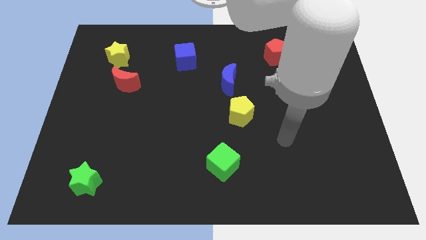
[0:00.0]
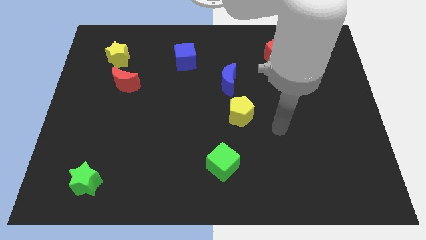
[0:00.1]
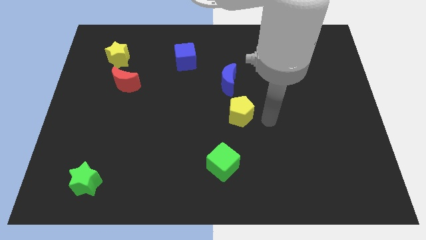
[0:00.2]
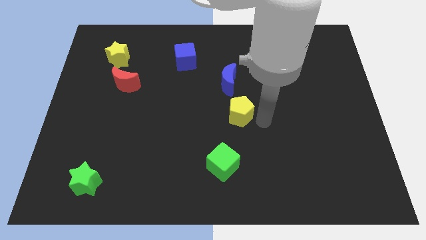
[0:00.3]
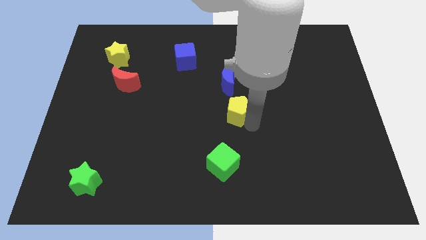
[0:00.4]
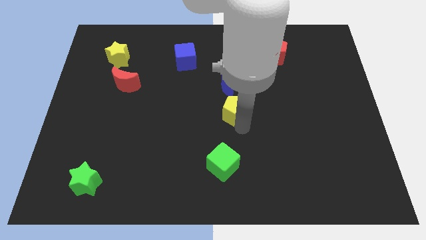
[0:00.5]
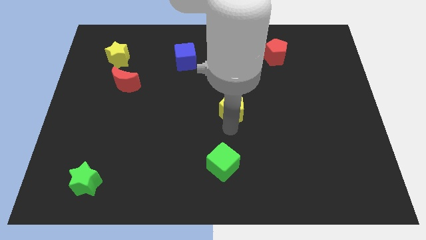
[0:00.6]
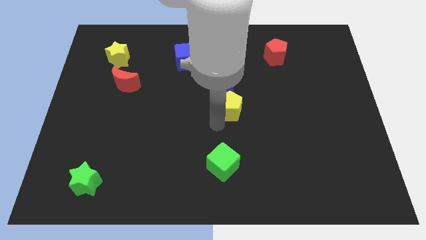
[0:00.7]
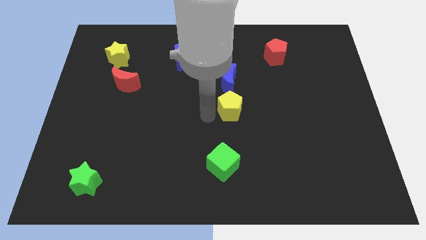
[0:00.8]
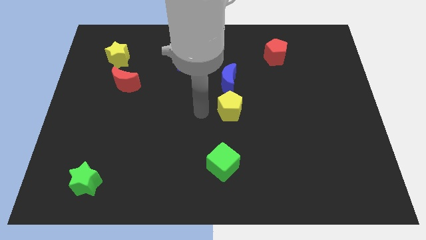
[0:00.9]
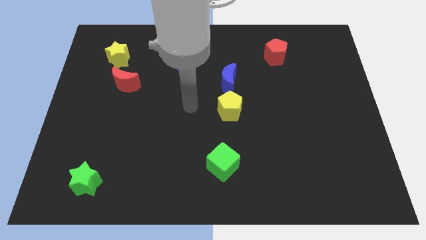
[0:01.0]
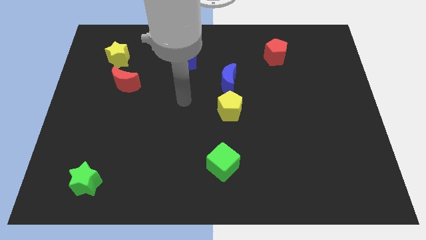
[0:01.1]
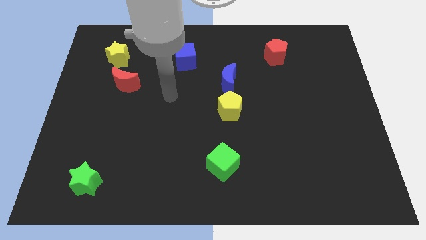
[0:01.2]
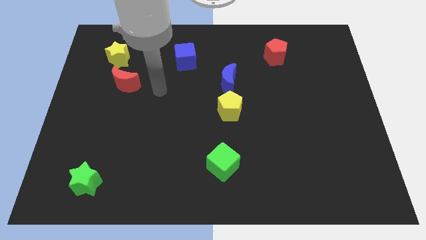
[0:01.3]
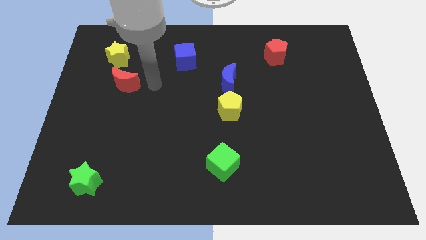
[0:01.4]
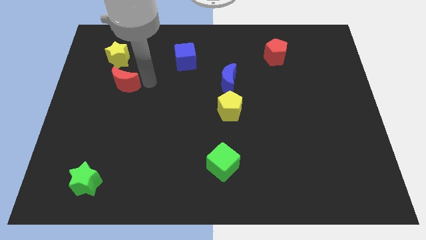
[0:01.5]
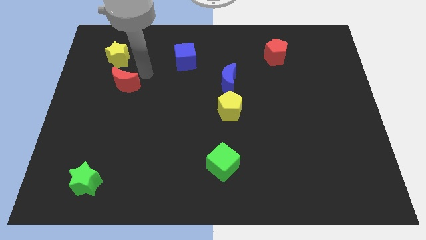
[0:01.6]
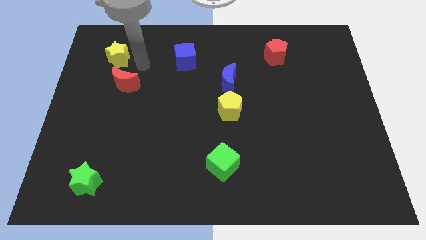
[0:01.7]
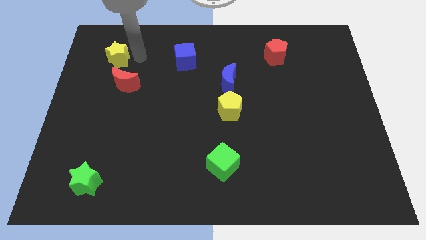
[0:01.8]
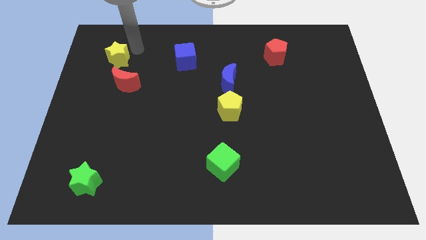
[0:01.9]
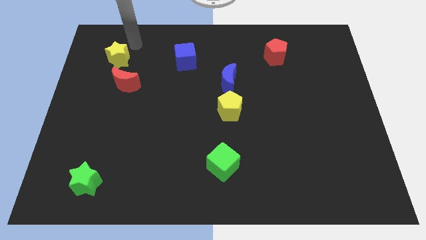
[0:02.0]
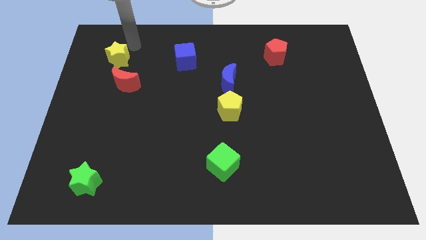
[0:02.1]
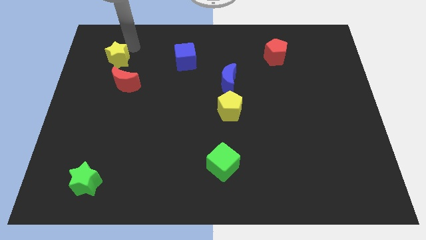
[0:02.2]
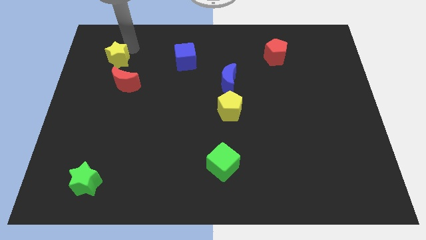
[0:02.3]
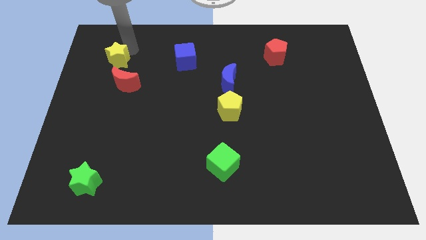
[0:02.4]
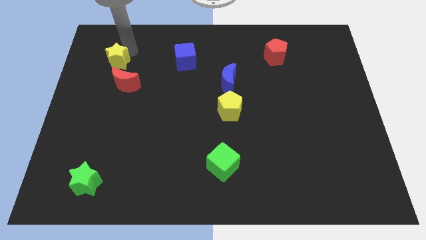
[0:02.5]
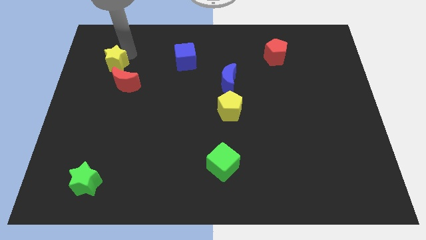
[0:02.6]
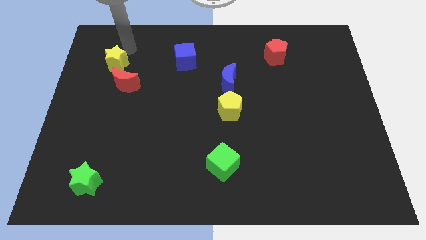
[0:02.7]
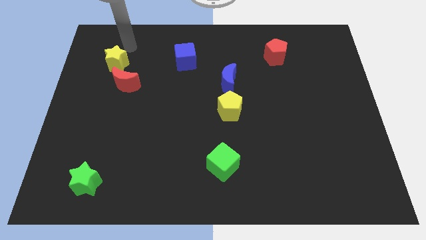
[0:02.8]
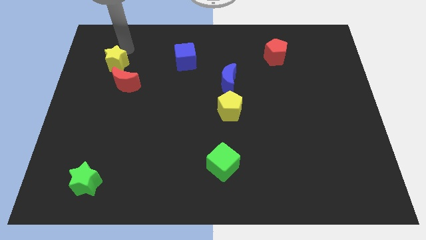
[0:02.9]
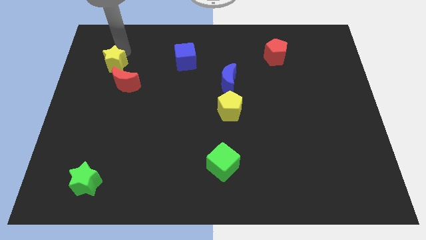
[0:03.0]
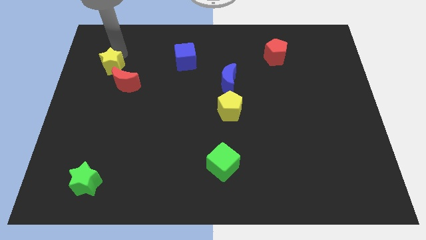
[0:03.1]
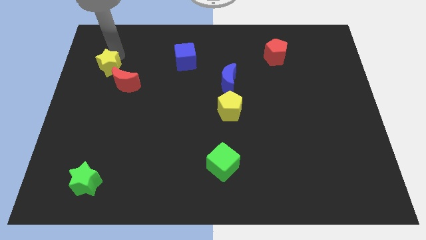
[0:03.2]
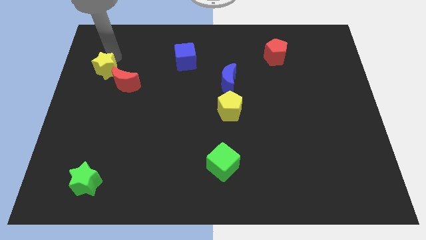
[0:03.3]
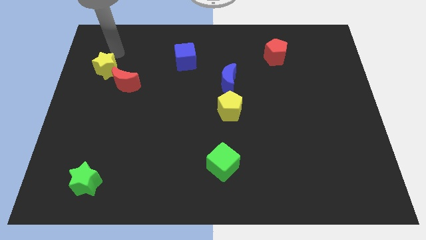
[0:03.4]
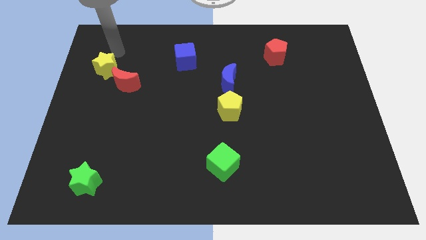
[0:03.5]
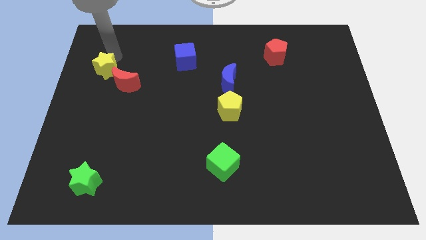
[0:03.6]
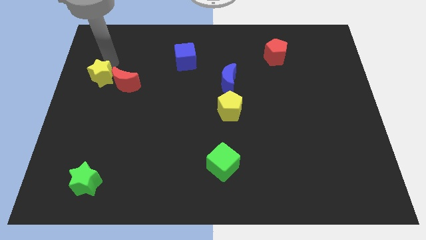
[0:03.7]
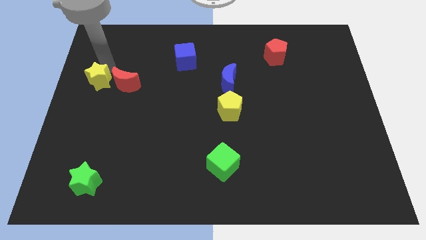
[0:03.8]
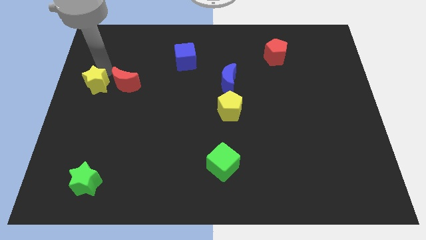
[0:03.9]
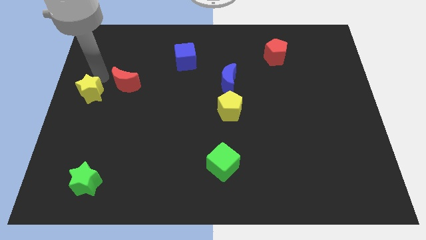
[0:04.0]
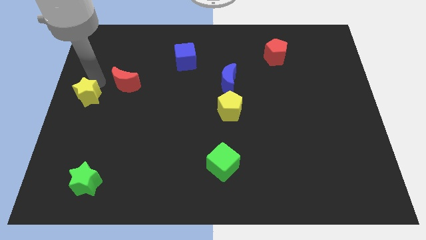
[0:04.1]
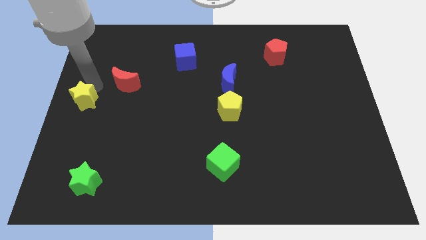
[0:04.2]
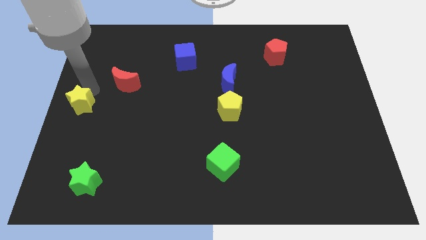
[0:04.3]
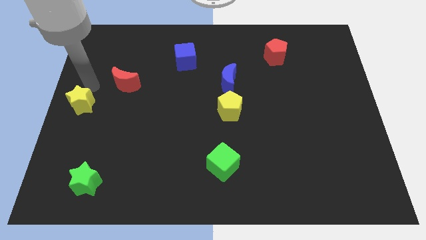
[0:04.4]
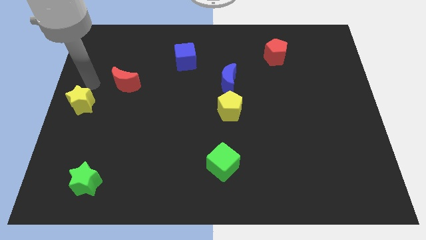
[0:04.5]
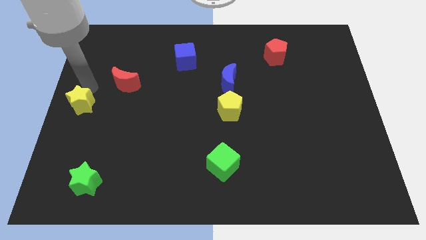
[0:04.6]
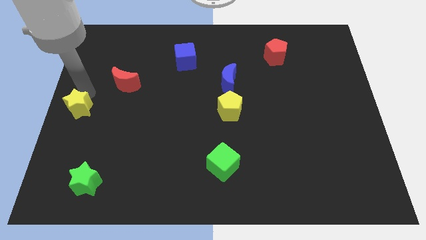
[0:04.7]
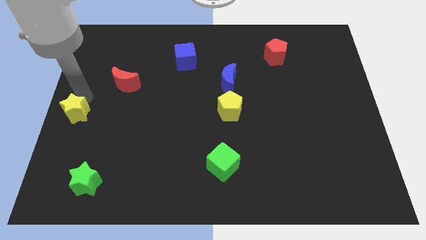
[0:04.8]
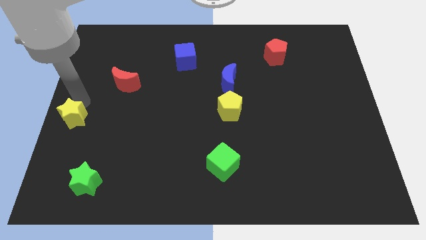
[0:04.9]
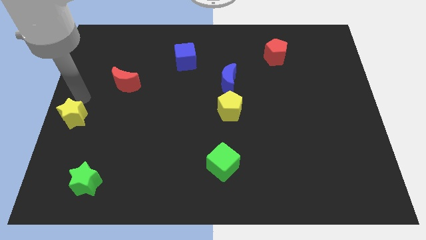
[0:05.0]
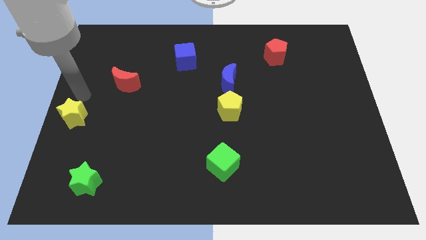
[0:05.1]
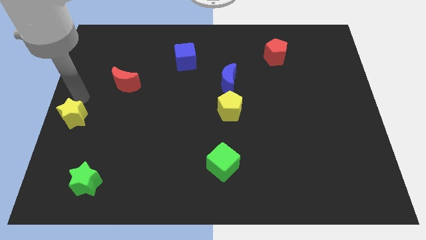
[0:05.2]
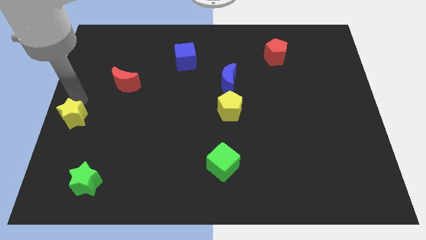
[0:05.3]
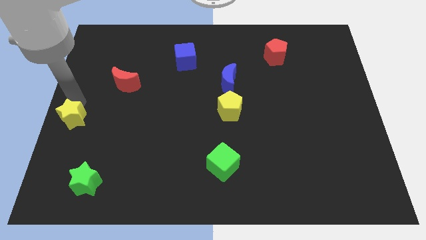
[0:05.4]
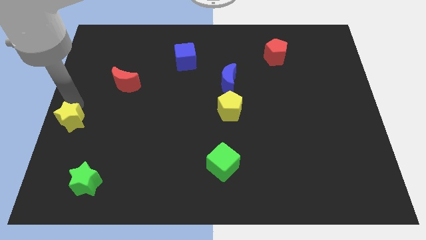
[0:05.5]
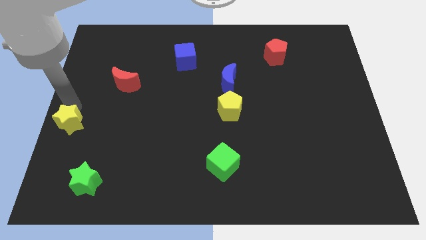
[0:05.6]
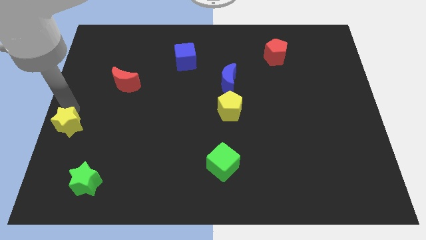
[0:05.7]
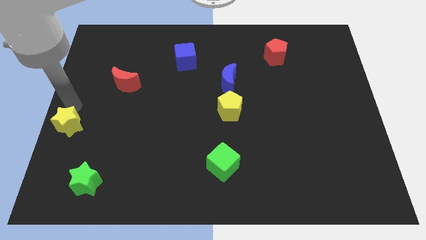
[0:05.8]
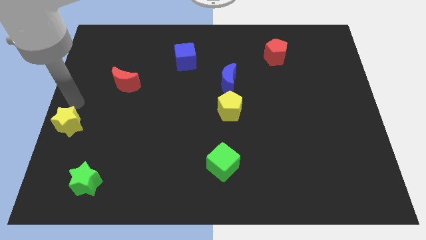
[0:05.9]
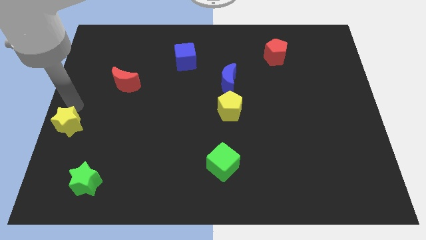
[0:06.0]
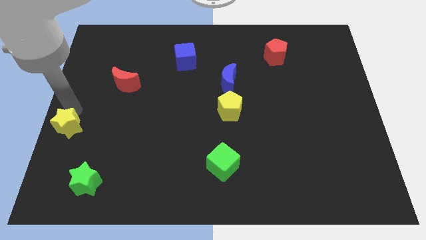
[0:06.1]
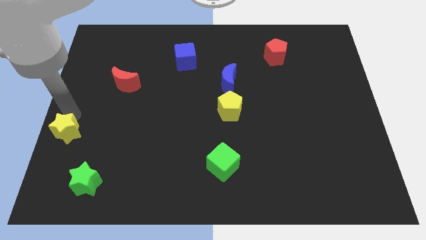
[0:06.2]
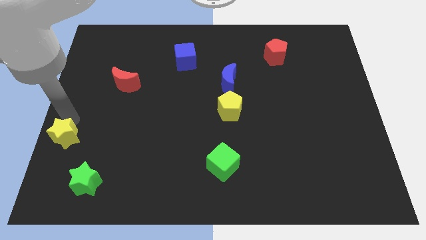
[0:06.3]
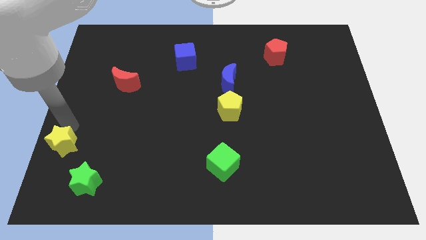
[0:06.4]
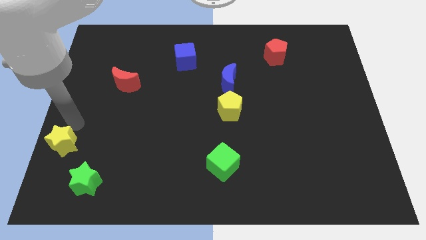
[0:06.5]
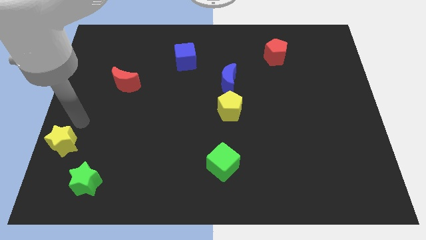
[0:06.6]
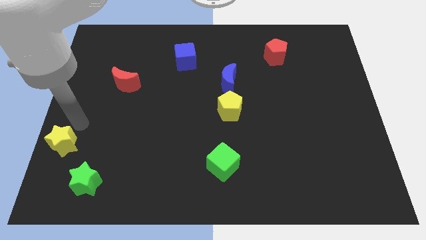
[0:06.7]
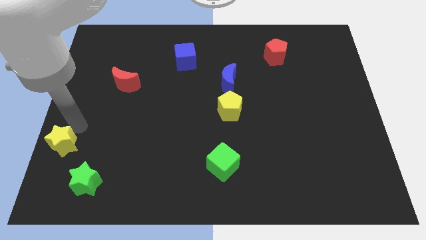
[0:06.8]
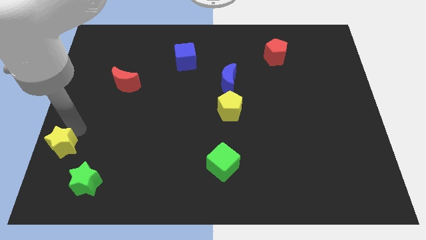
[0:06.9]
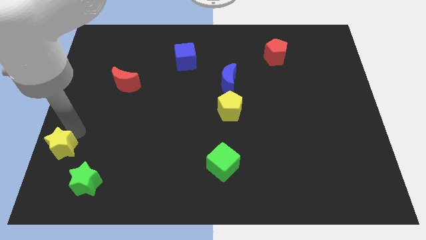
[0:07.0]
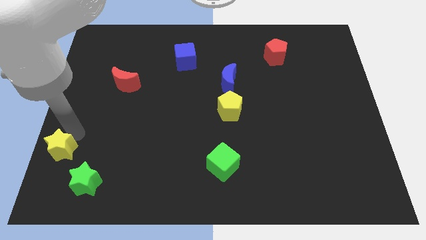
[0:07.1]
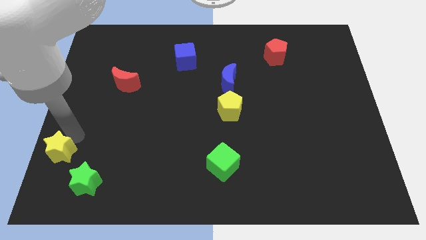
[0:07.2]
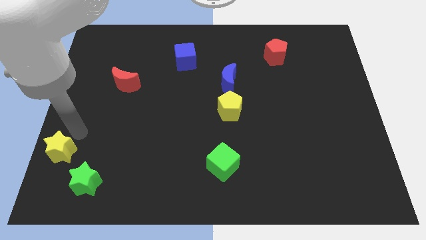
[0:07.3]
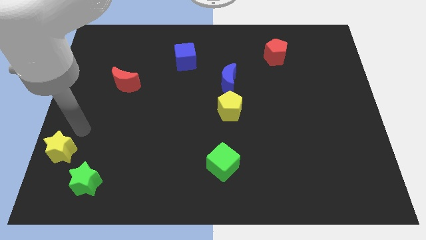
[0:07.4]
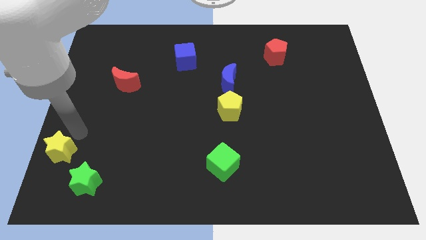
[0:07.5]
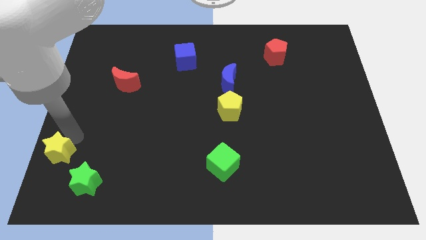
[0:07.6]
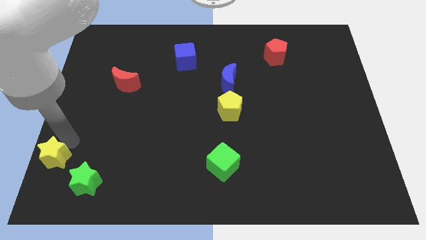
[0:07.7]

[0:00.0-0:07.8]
put the yellow star to the bottom left corner

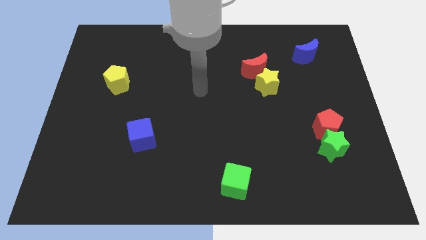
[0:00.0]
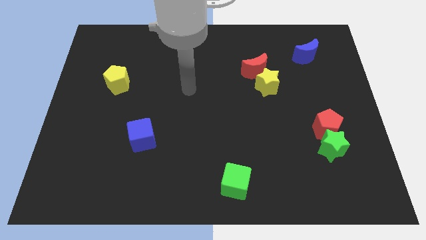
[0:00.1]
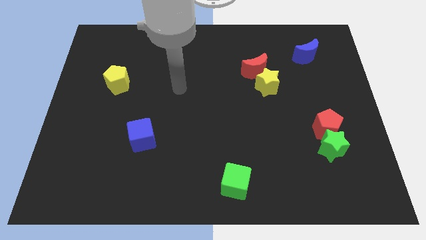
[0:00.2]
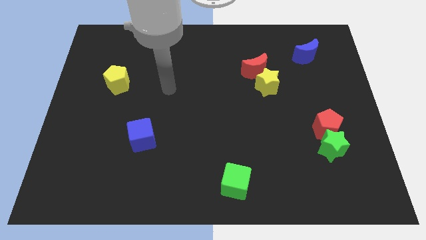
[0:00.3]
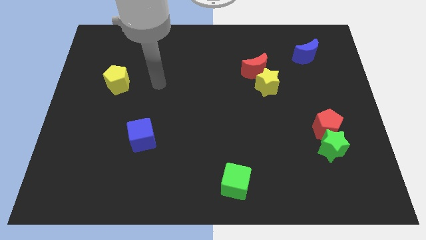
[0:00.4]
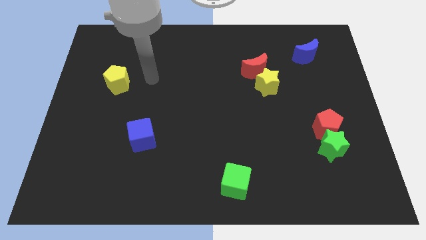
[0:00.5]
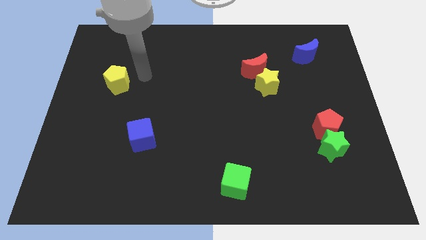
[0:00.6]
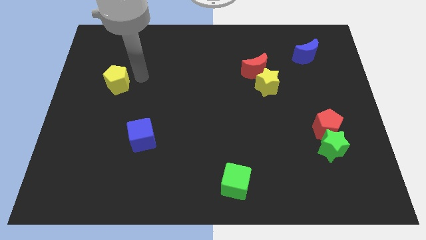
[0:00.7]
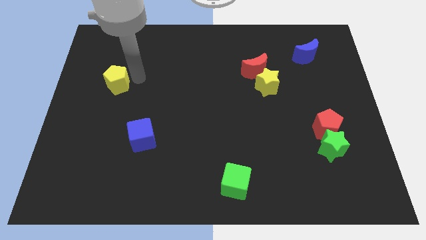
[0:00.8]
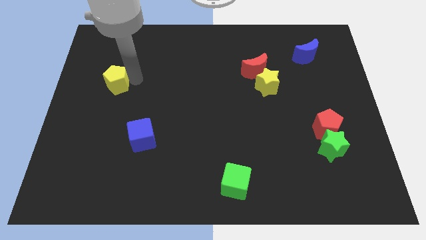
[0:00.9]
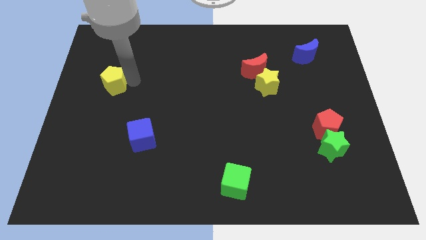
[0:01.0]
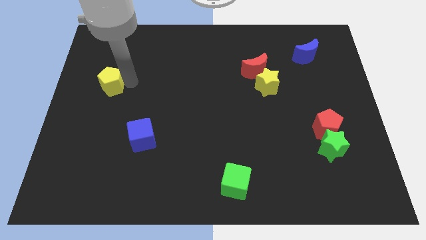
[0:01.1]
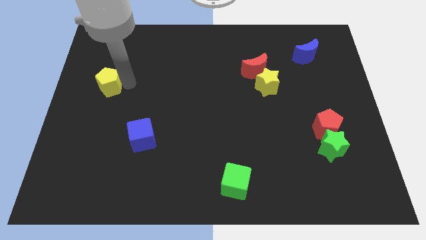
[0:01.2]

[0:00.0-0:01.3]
move the yellow pentagon to the center left
